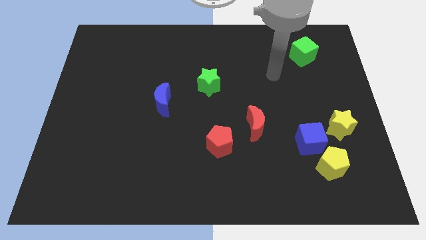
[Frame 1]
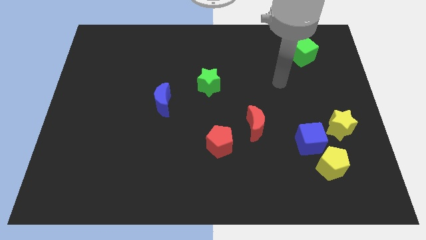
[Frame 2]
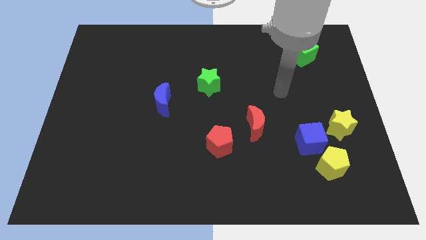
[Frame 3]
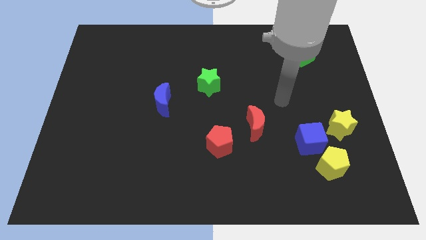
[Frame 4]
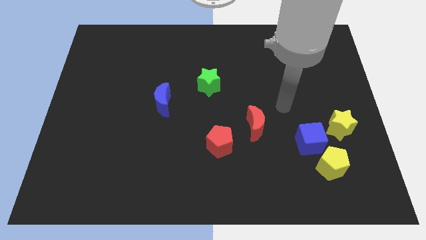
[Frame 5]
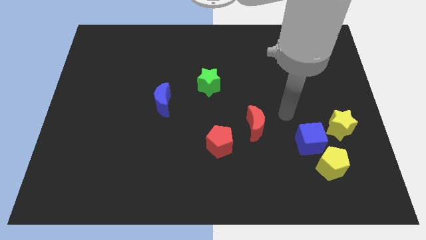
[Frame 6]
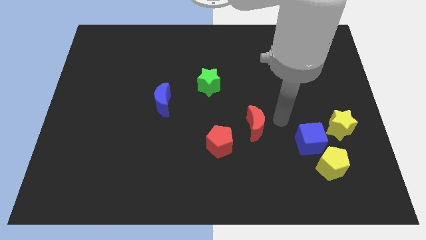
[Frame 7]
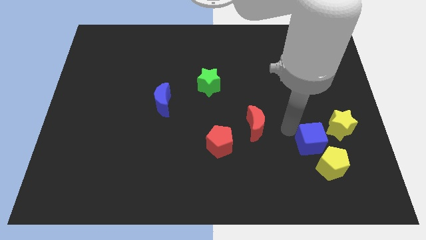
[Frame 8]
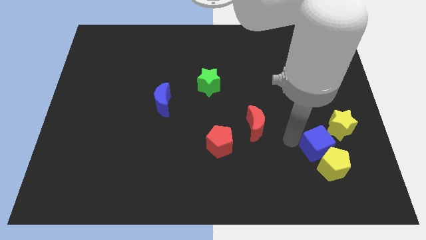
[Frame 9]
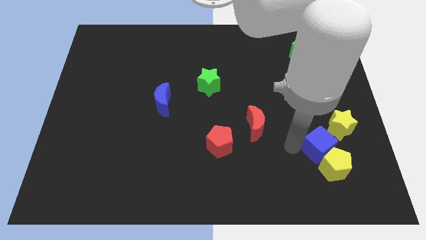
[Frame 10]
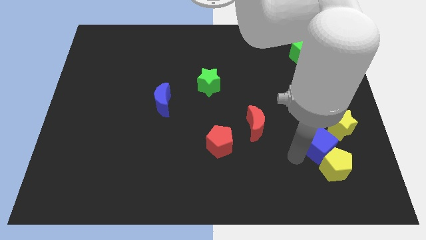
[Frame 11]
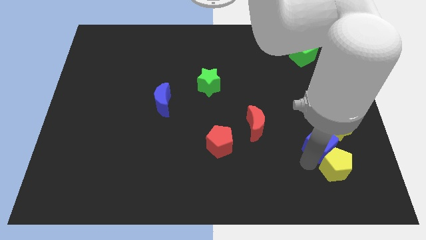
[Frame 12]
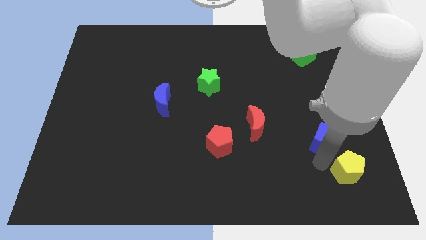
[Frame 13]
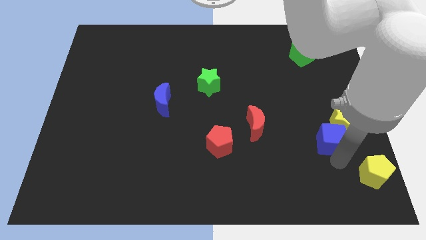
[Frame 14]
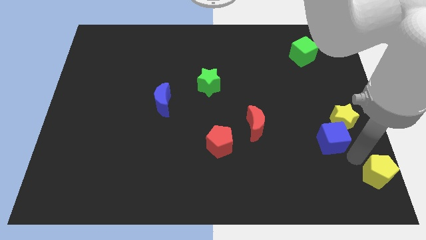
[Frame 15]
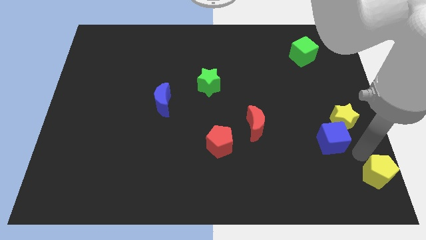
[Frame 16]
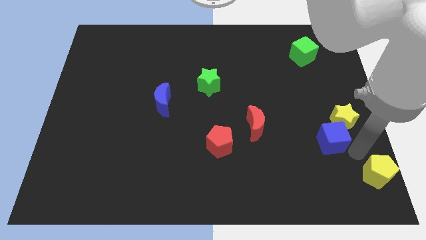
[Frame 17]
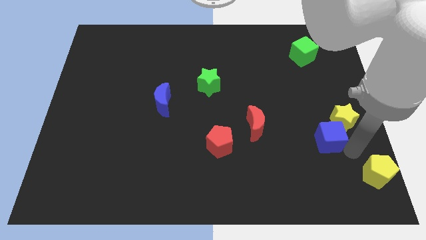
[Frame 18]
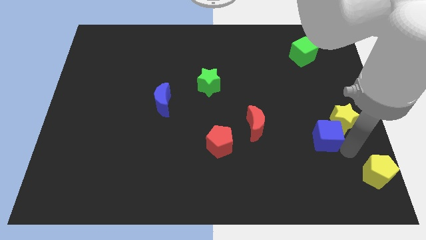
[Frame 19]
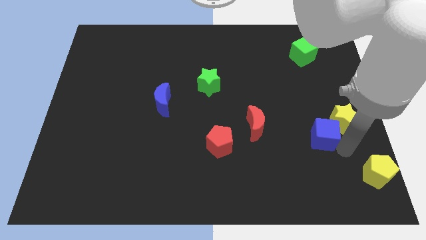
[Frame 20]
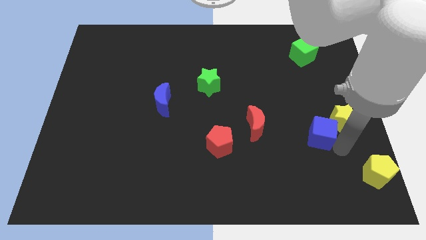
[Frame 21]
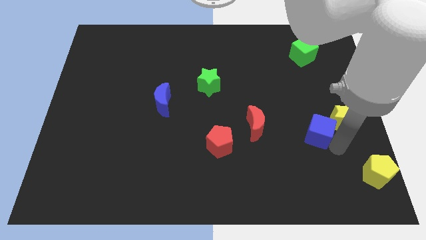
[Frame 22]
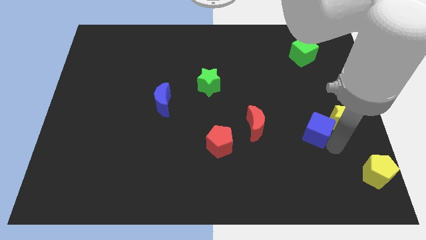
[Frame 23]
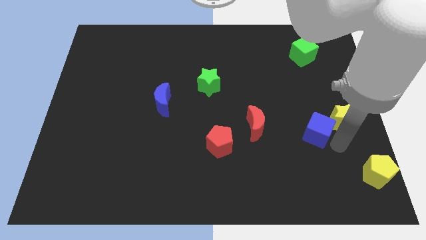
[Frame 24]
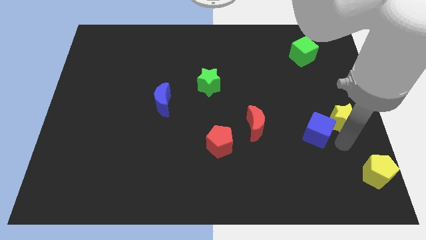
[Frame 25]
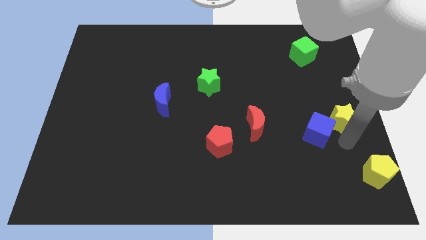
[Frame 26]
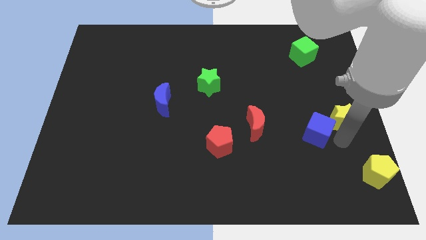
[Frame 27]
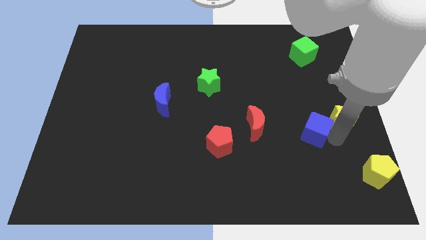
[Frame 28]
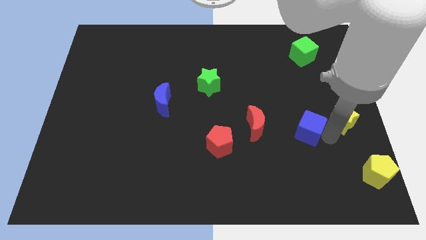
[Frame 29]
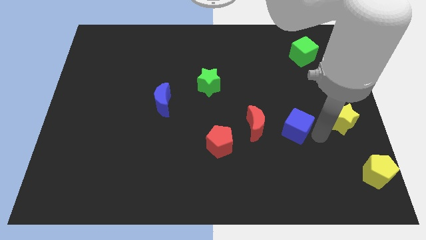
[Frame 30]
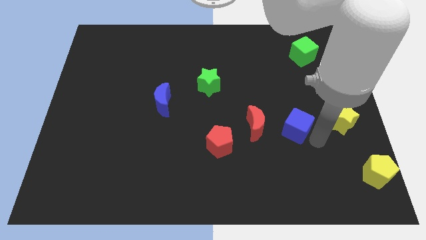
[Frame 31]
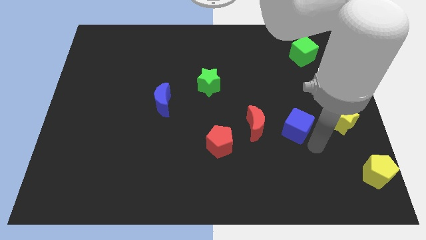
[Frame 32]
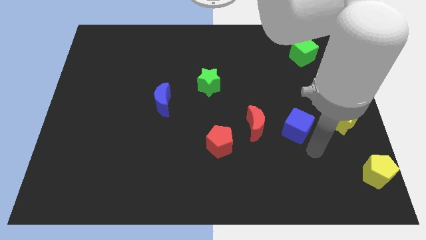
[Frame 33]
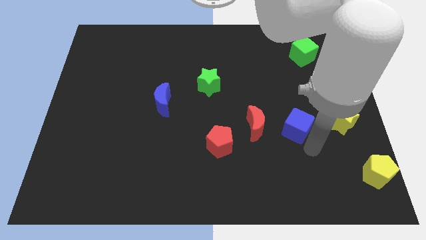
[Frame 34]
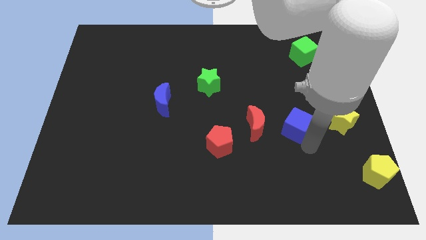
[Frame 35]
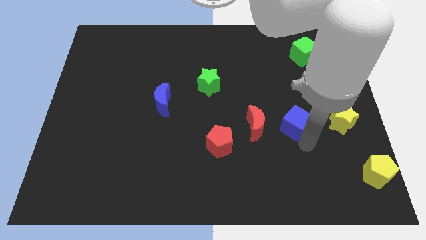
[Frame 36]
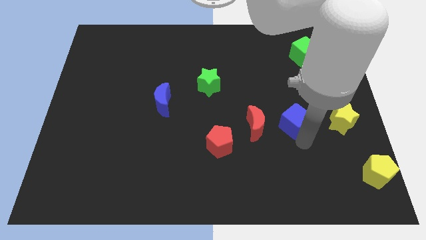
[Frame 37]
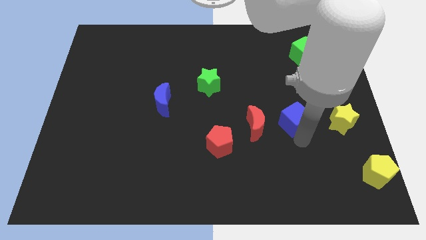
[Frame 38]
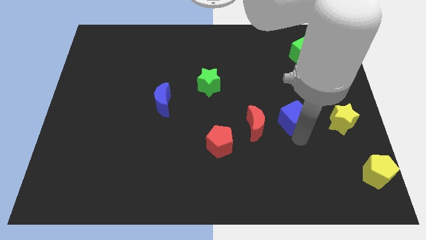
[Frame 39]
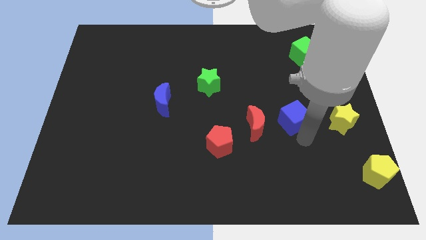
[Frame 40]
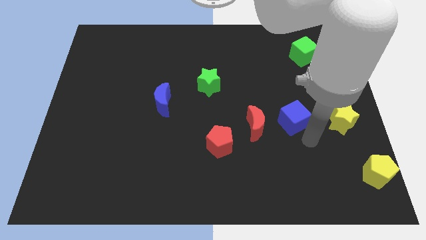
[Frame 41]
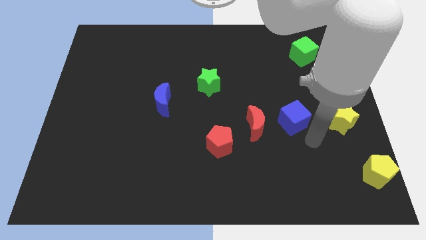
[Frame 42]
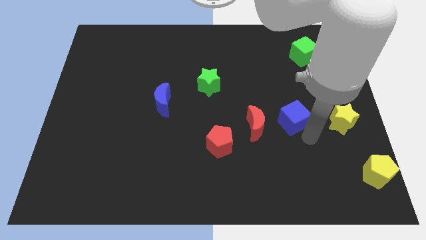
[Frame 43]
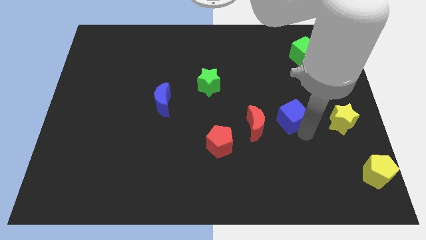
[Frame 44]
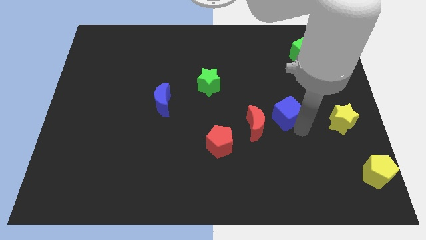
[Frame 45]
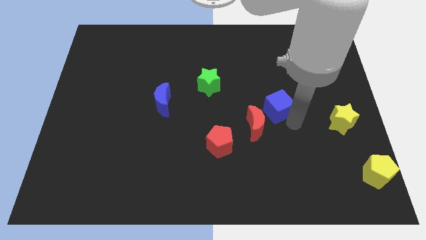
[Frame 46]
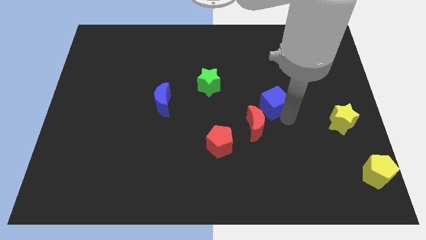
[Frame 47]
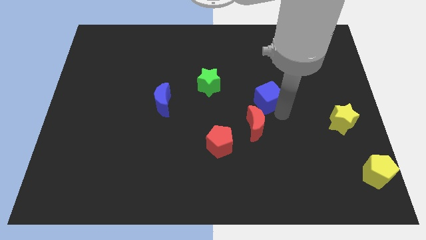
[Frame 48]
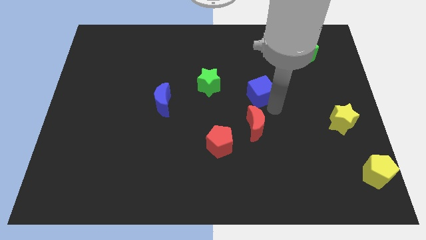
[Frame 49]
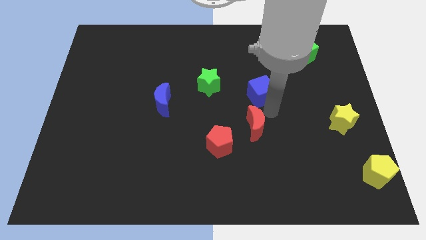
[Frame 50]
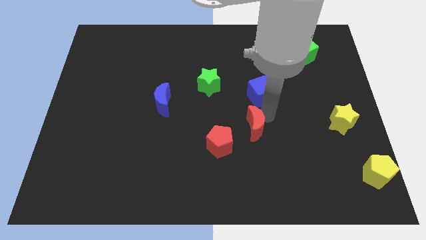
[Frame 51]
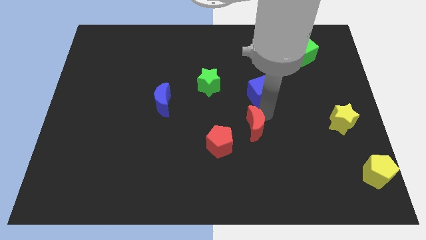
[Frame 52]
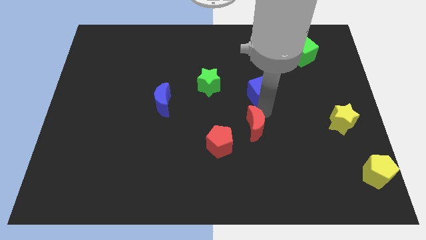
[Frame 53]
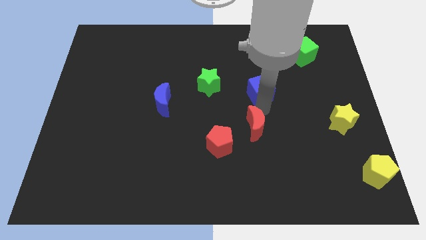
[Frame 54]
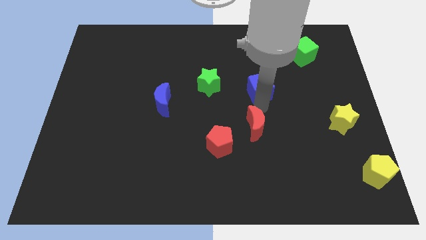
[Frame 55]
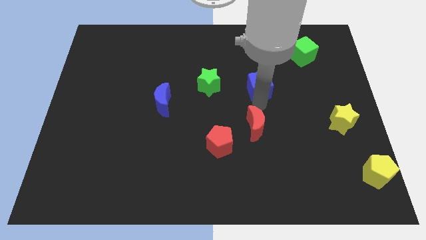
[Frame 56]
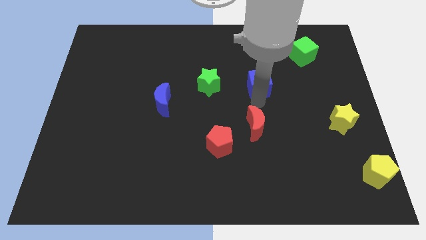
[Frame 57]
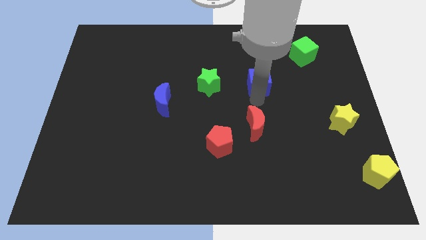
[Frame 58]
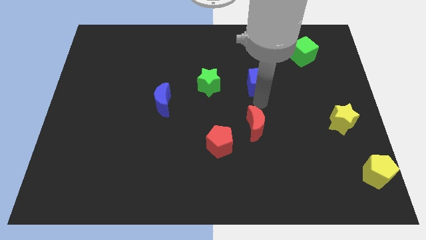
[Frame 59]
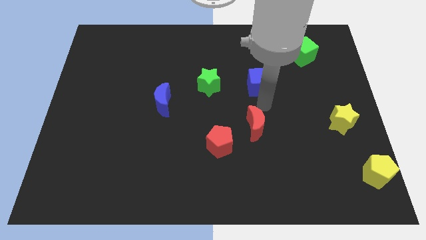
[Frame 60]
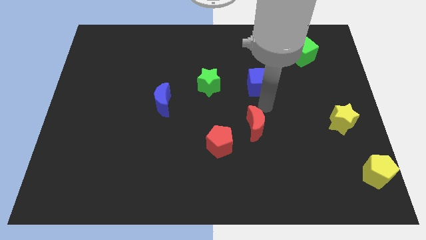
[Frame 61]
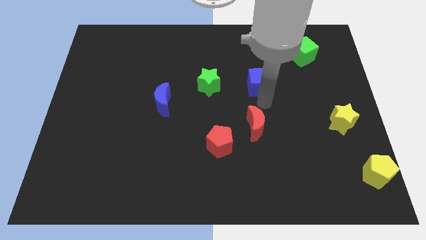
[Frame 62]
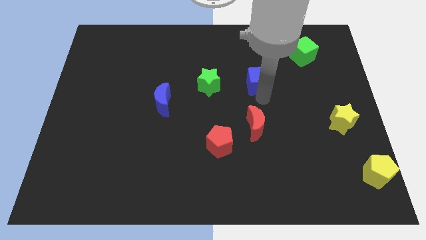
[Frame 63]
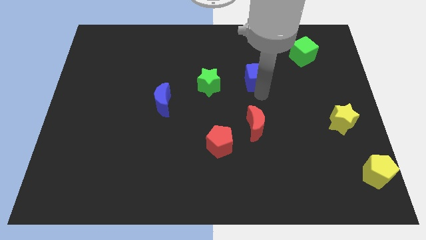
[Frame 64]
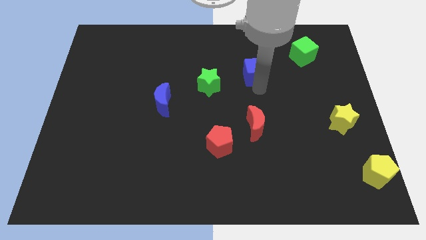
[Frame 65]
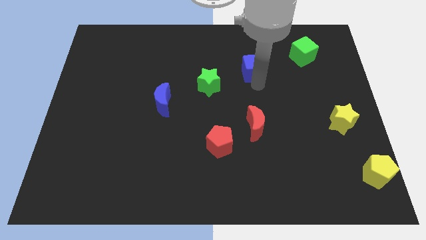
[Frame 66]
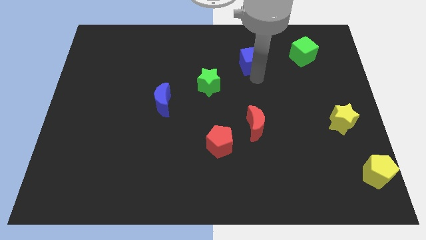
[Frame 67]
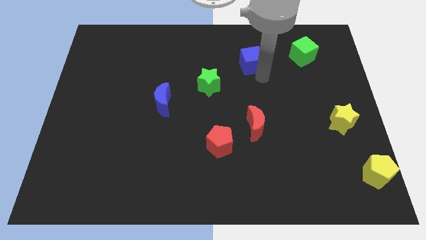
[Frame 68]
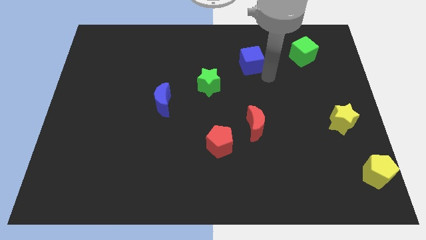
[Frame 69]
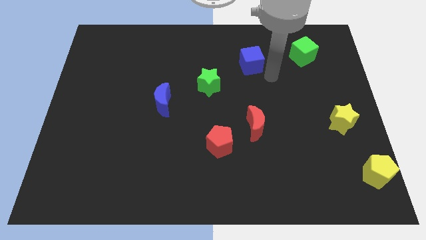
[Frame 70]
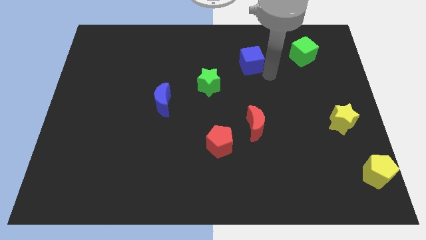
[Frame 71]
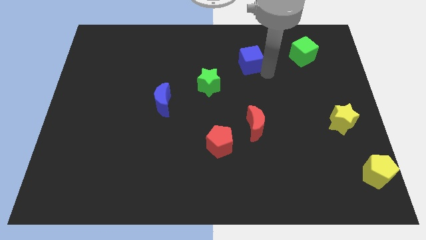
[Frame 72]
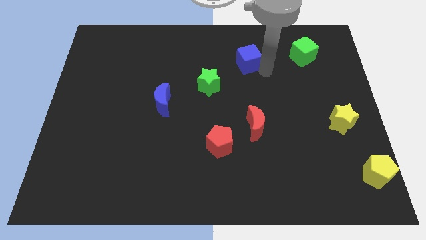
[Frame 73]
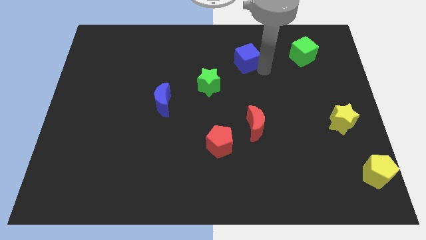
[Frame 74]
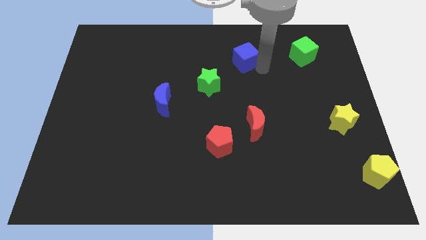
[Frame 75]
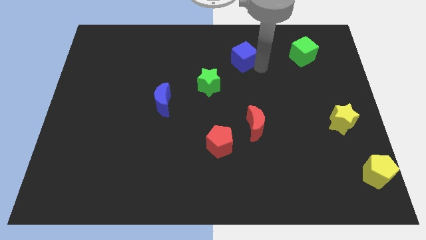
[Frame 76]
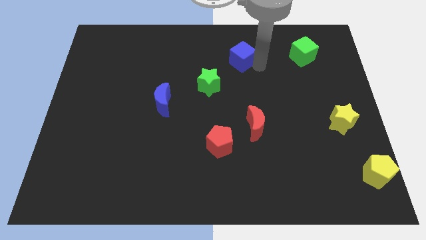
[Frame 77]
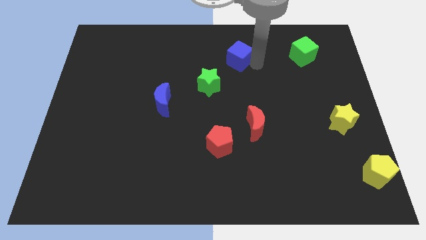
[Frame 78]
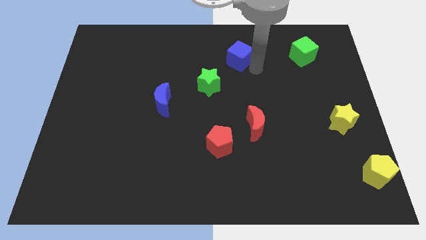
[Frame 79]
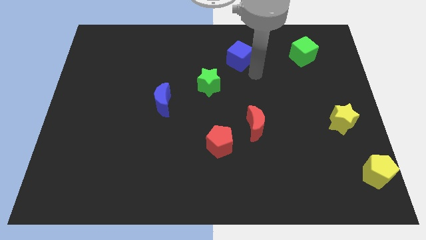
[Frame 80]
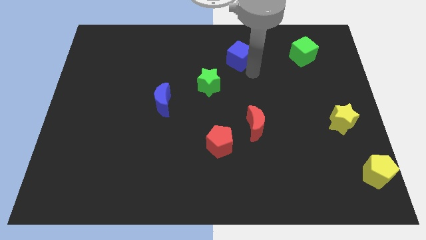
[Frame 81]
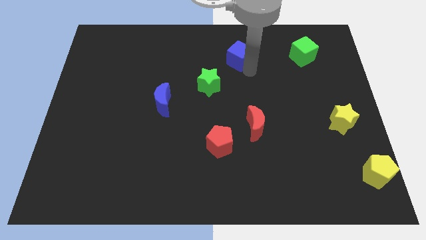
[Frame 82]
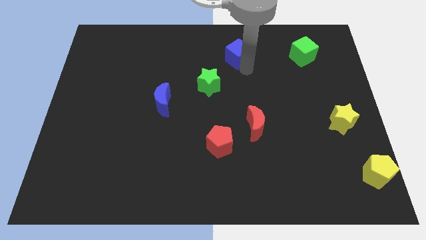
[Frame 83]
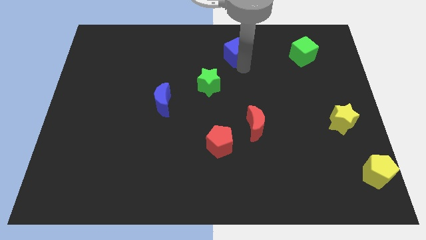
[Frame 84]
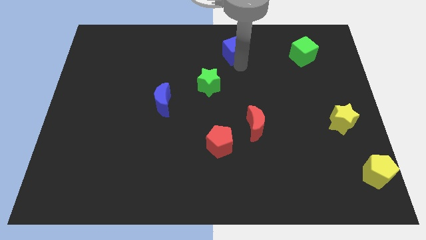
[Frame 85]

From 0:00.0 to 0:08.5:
push the blue cube to the top side
